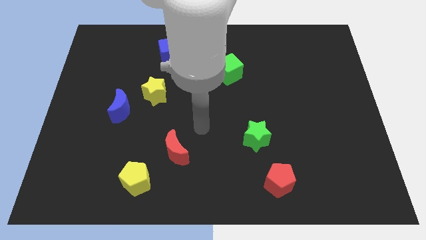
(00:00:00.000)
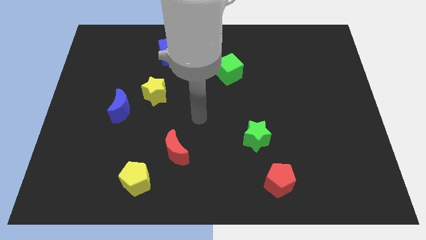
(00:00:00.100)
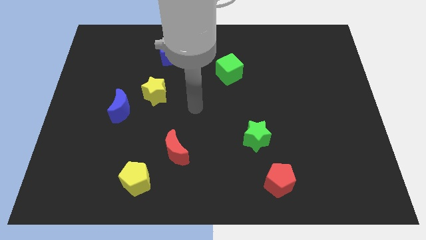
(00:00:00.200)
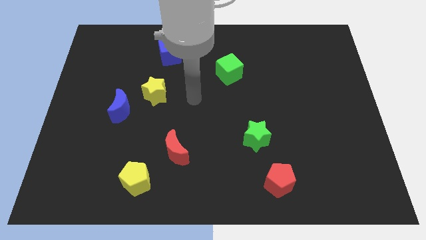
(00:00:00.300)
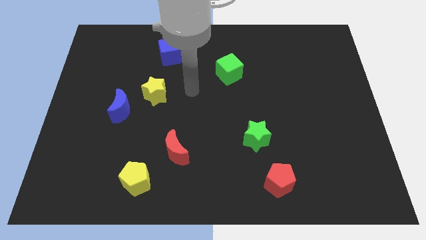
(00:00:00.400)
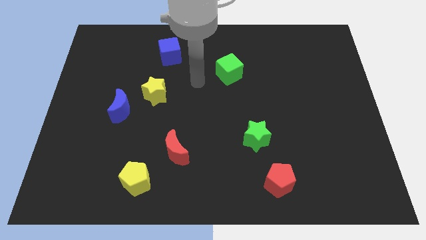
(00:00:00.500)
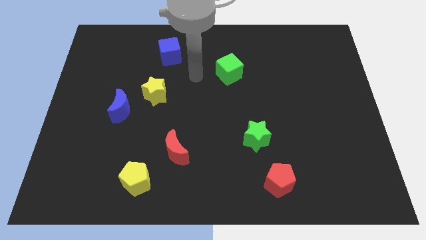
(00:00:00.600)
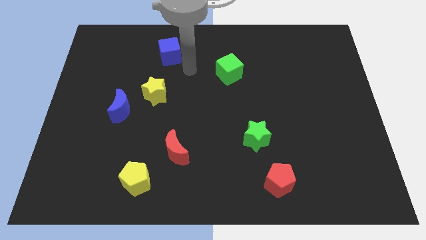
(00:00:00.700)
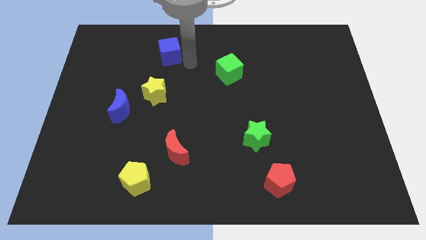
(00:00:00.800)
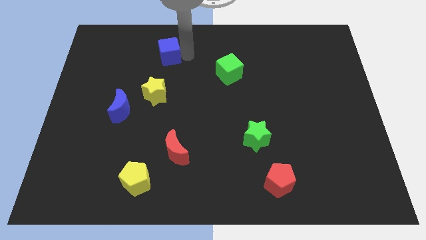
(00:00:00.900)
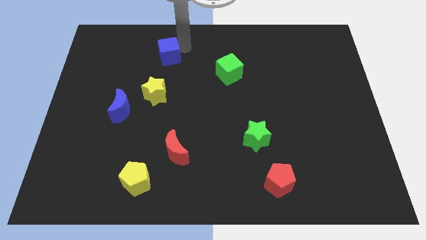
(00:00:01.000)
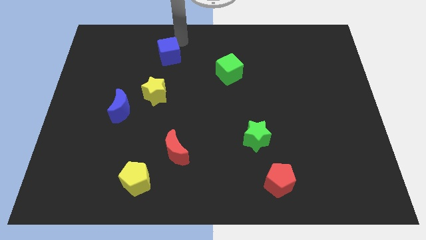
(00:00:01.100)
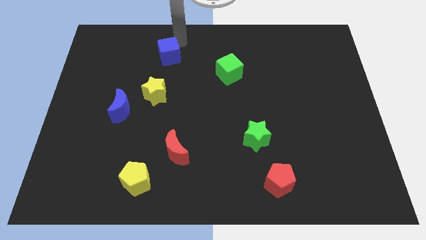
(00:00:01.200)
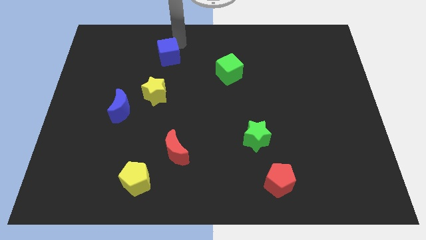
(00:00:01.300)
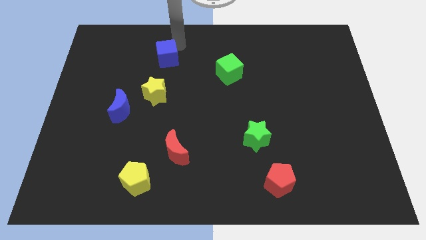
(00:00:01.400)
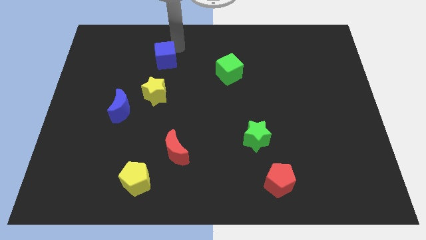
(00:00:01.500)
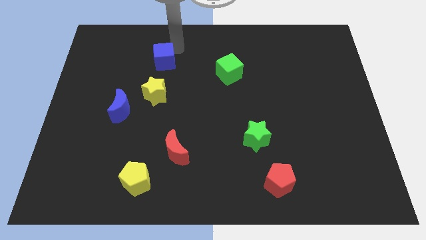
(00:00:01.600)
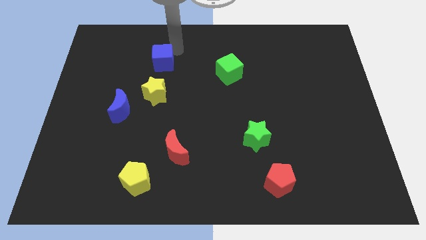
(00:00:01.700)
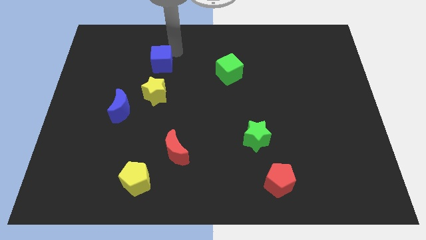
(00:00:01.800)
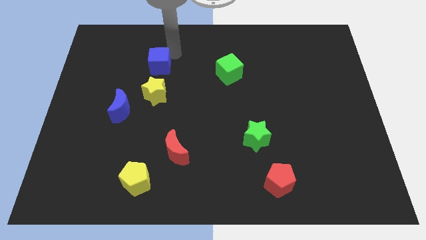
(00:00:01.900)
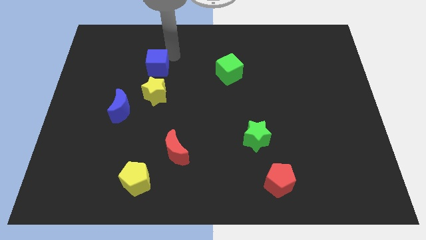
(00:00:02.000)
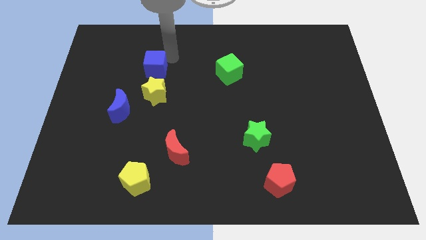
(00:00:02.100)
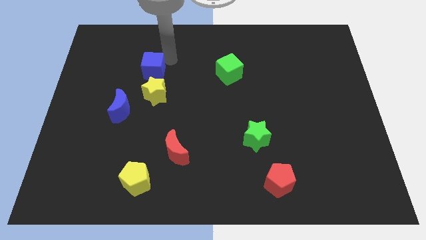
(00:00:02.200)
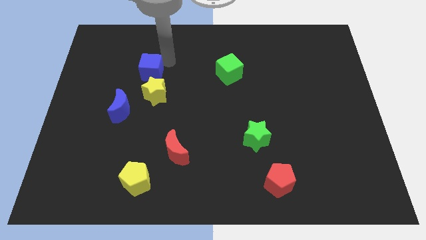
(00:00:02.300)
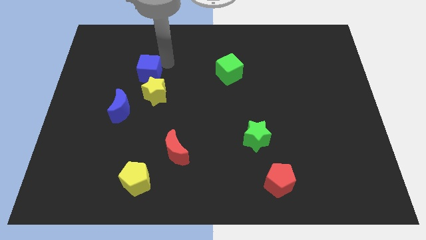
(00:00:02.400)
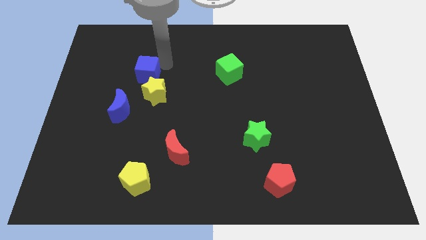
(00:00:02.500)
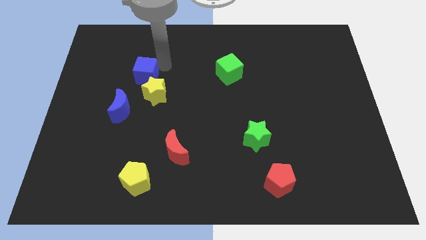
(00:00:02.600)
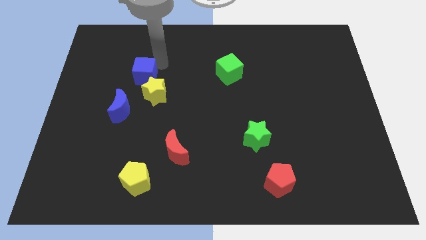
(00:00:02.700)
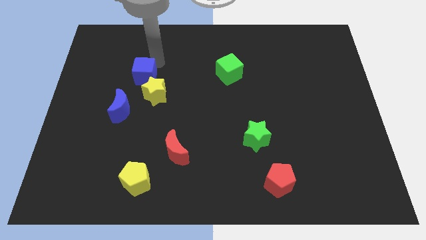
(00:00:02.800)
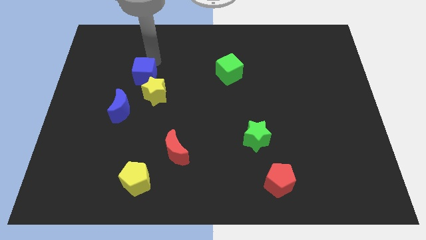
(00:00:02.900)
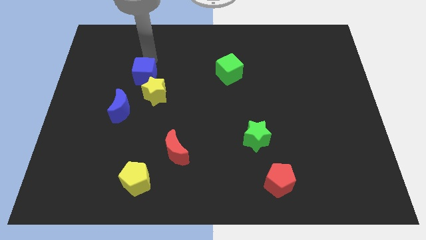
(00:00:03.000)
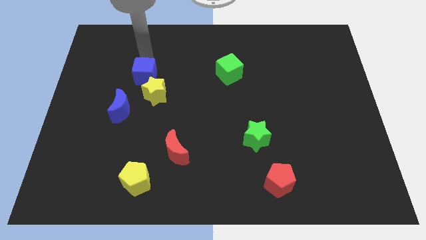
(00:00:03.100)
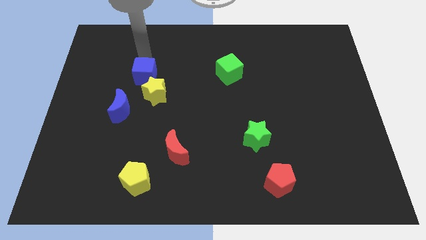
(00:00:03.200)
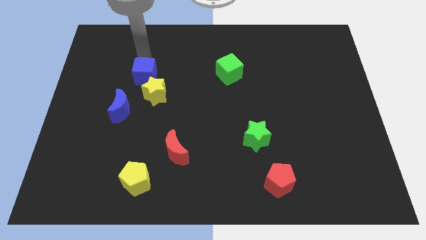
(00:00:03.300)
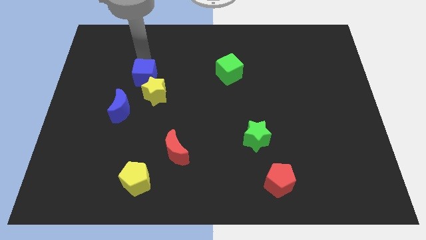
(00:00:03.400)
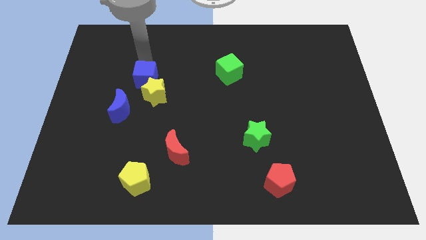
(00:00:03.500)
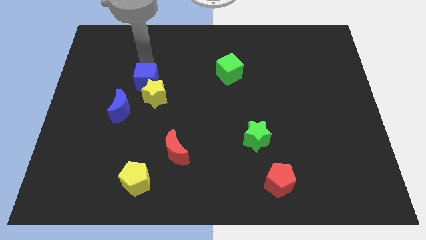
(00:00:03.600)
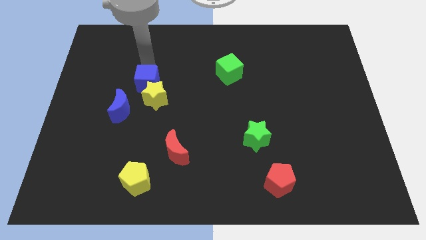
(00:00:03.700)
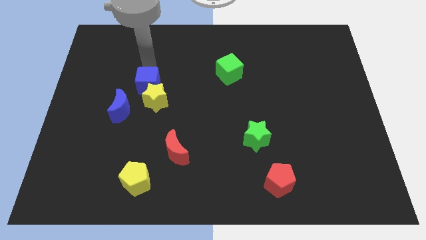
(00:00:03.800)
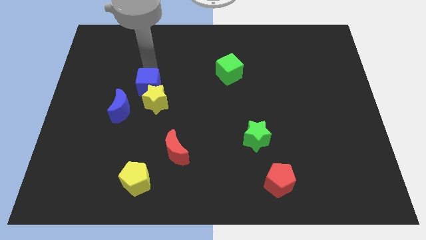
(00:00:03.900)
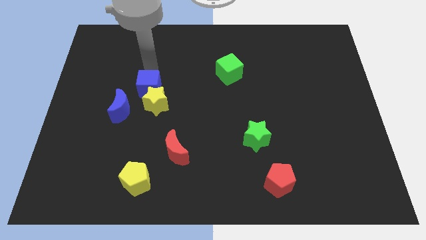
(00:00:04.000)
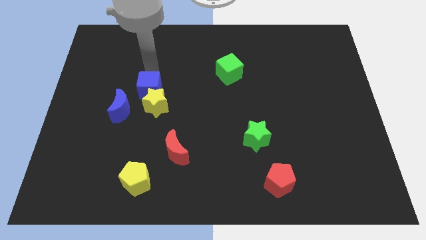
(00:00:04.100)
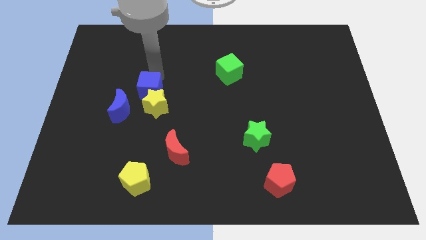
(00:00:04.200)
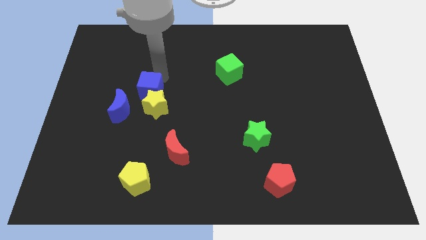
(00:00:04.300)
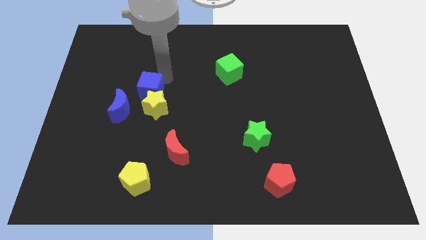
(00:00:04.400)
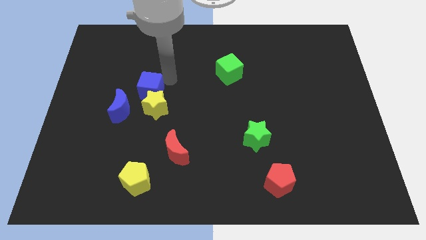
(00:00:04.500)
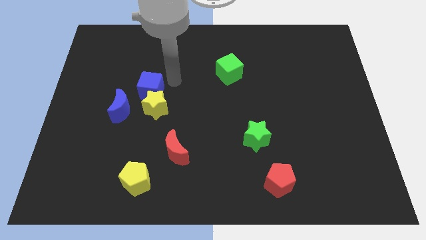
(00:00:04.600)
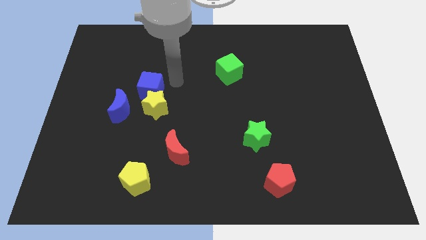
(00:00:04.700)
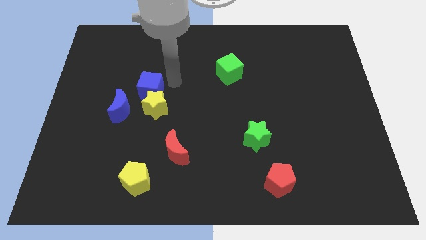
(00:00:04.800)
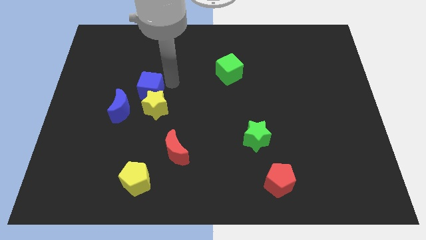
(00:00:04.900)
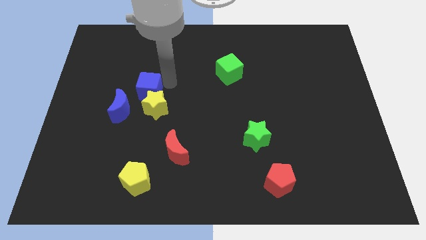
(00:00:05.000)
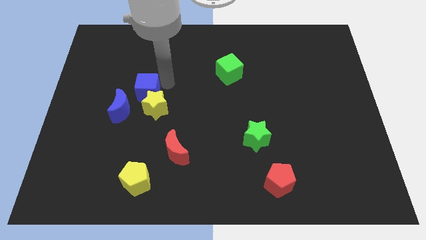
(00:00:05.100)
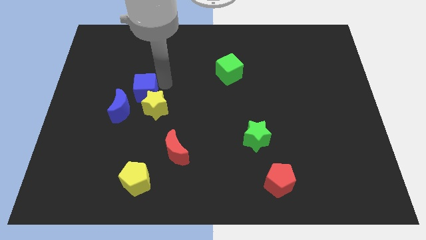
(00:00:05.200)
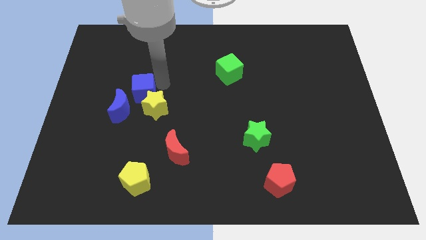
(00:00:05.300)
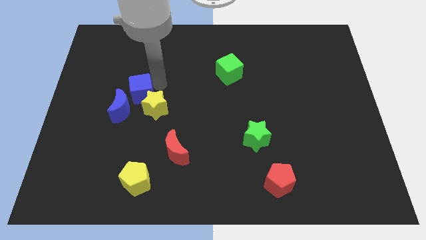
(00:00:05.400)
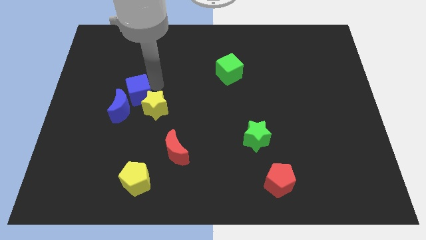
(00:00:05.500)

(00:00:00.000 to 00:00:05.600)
move the blue cube next to the blue moon

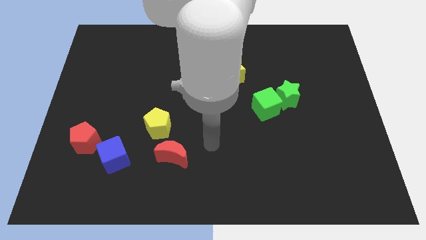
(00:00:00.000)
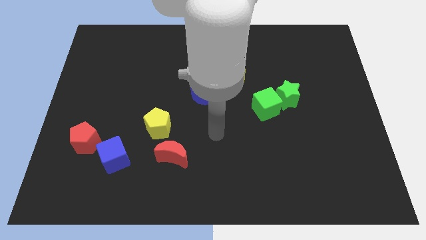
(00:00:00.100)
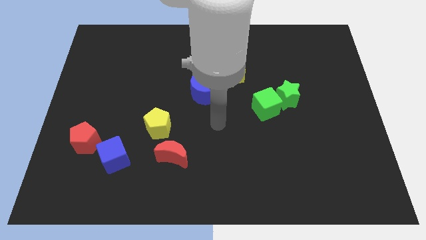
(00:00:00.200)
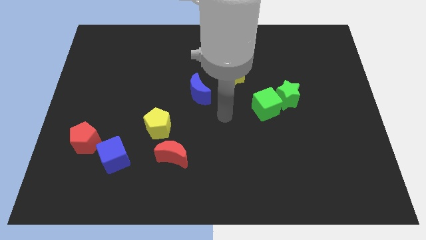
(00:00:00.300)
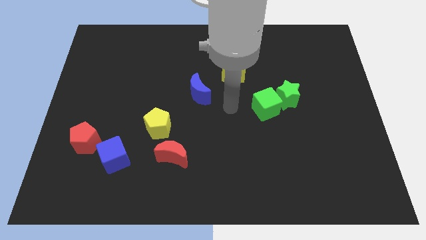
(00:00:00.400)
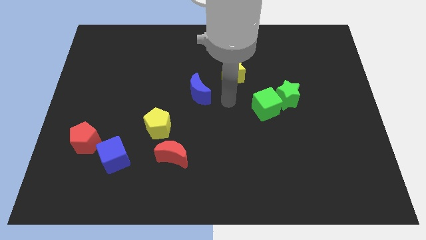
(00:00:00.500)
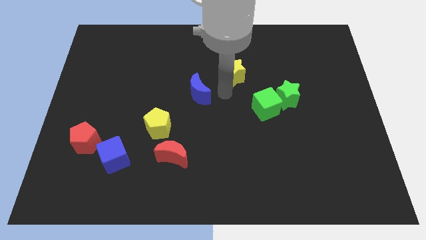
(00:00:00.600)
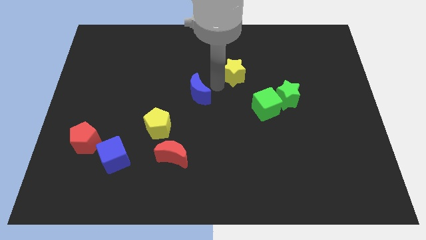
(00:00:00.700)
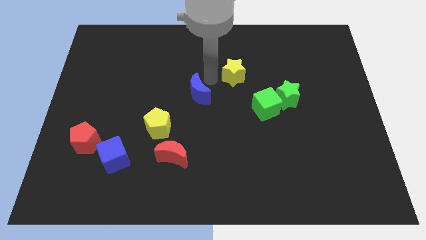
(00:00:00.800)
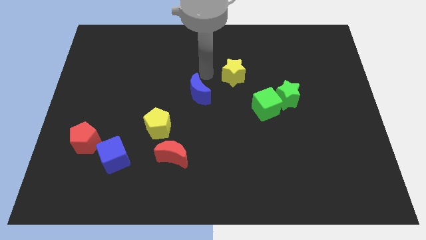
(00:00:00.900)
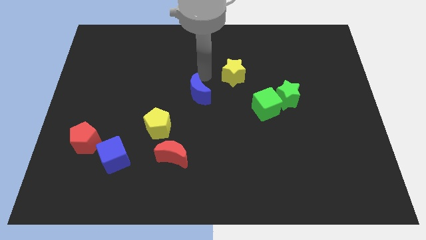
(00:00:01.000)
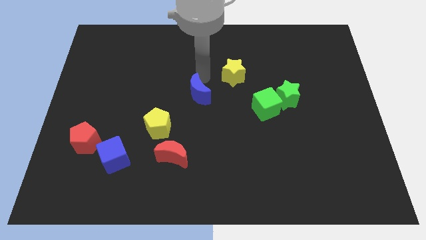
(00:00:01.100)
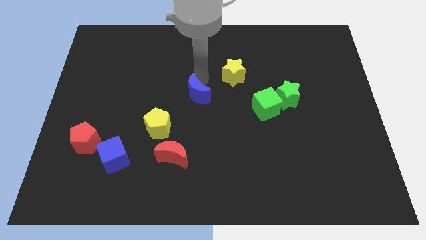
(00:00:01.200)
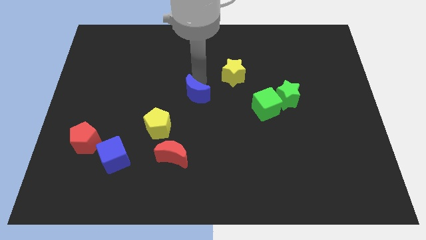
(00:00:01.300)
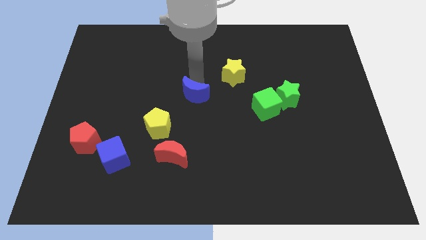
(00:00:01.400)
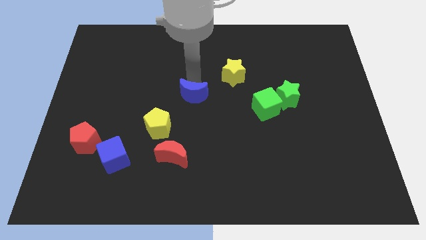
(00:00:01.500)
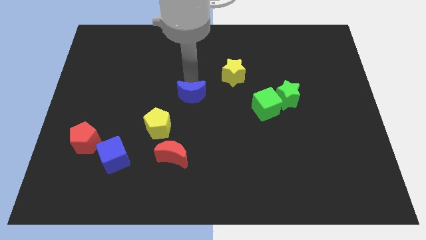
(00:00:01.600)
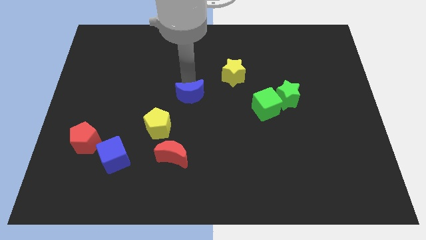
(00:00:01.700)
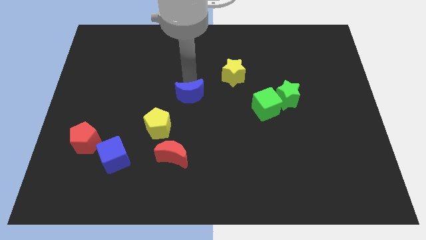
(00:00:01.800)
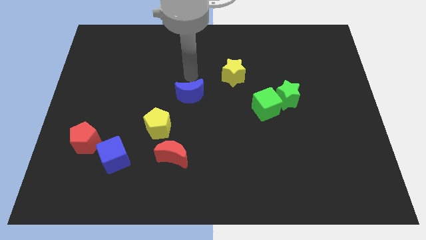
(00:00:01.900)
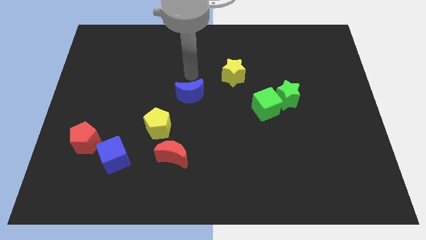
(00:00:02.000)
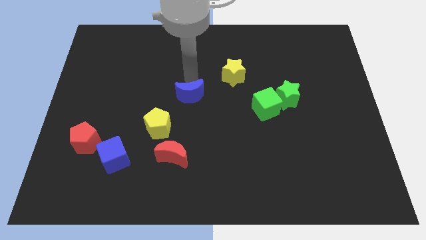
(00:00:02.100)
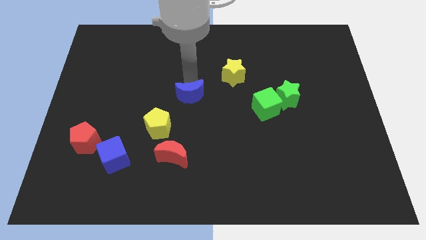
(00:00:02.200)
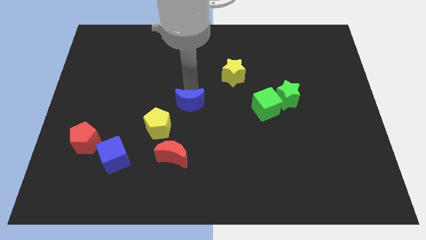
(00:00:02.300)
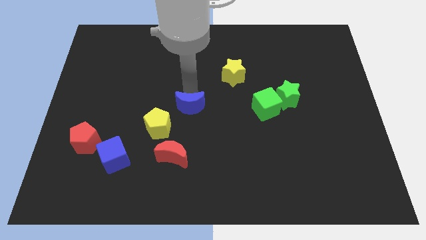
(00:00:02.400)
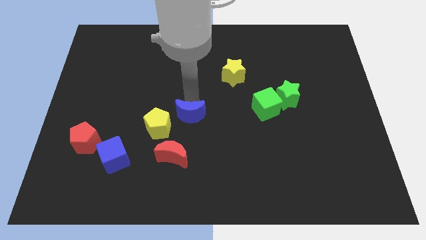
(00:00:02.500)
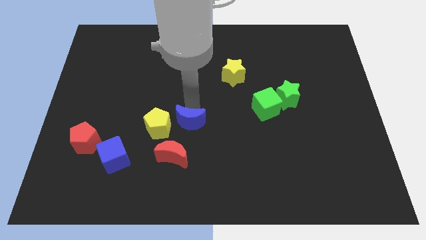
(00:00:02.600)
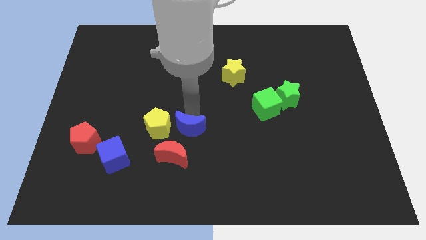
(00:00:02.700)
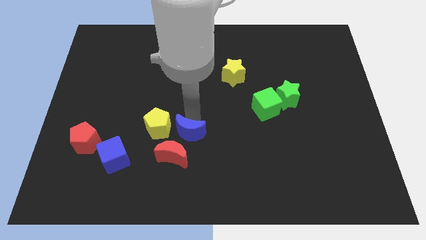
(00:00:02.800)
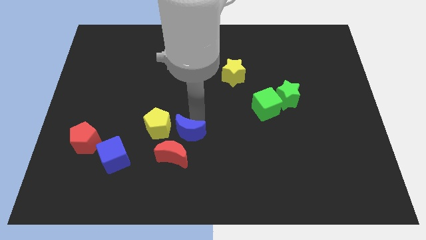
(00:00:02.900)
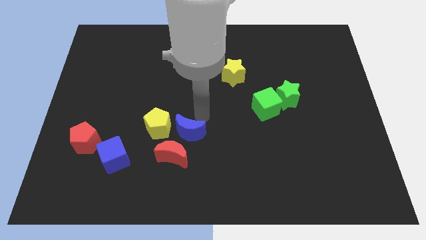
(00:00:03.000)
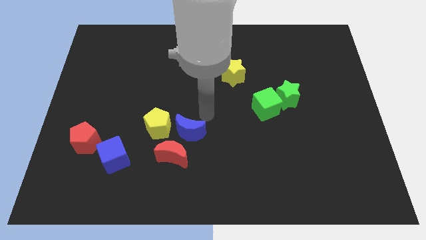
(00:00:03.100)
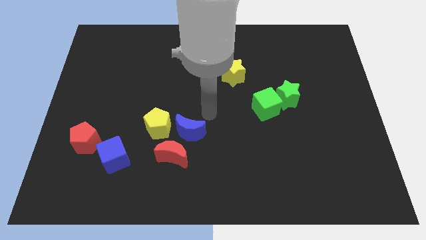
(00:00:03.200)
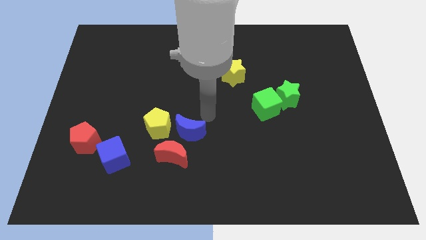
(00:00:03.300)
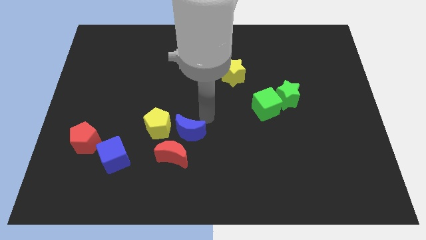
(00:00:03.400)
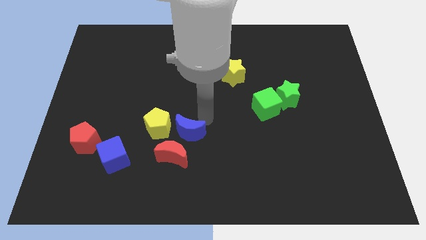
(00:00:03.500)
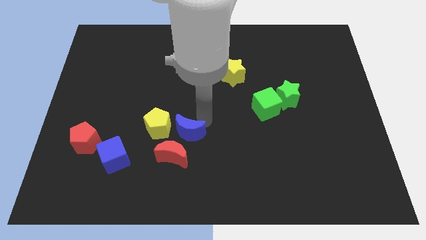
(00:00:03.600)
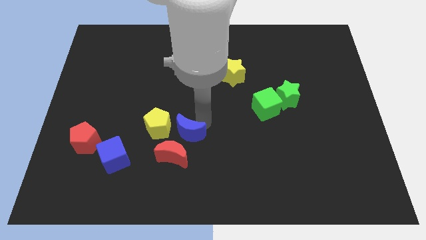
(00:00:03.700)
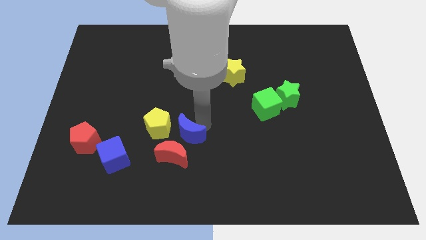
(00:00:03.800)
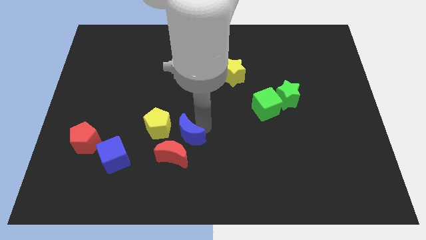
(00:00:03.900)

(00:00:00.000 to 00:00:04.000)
move the blue moon towards the red moon
